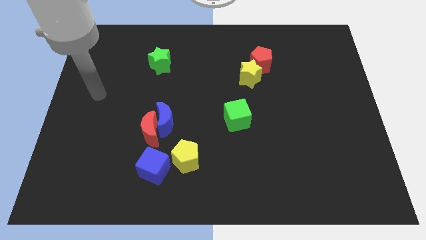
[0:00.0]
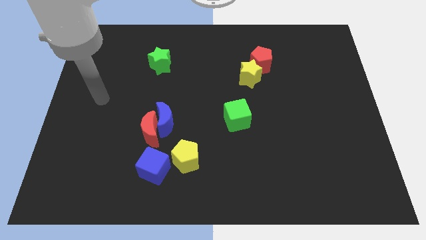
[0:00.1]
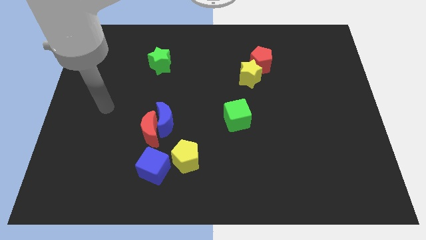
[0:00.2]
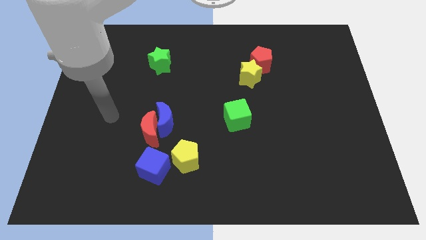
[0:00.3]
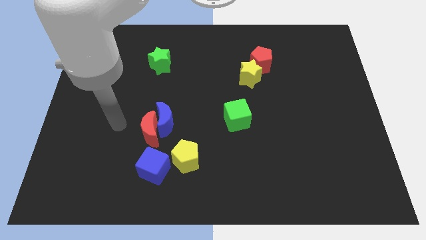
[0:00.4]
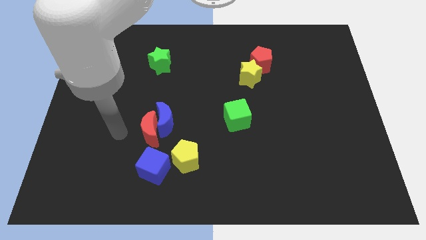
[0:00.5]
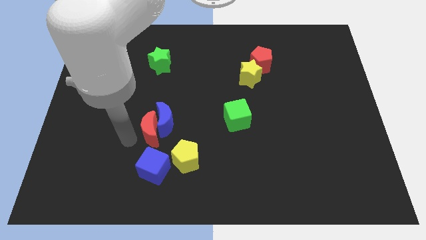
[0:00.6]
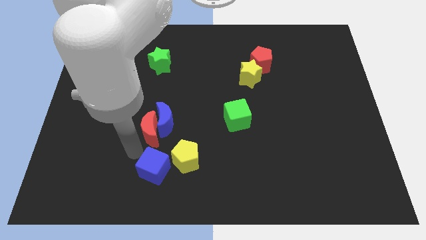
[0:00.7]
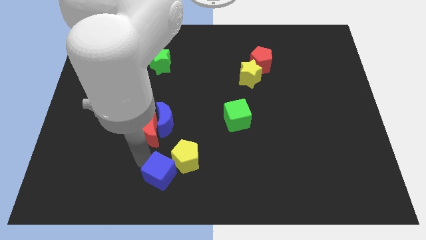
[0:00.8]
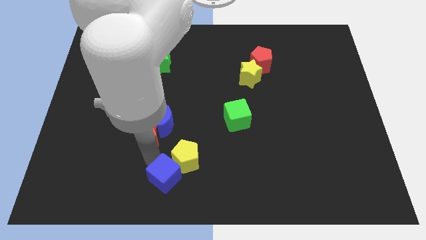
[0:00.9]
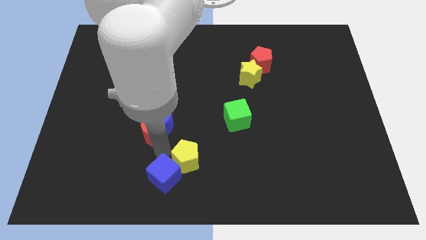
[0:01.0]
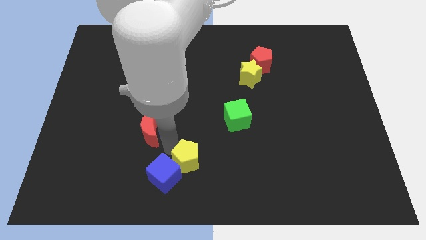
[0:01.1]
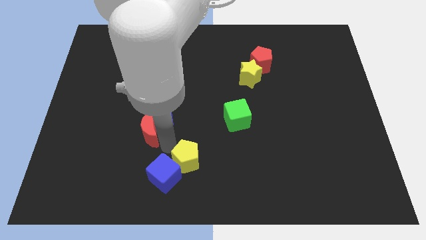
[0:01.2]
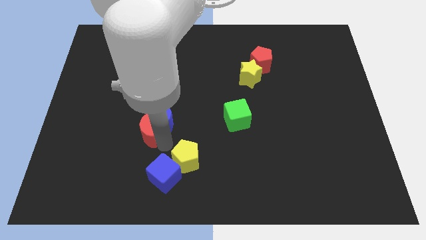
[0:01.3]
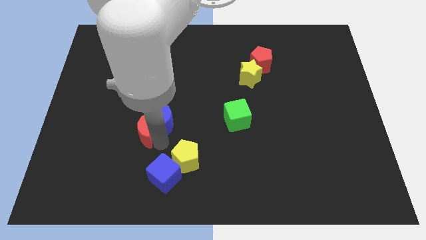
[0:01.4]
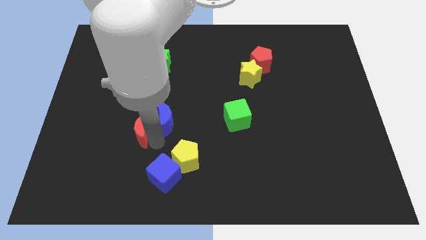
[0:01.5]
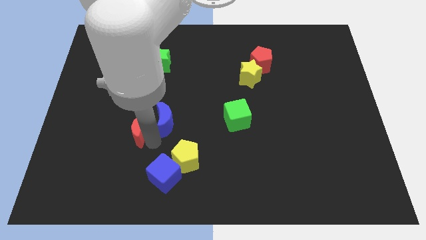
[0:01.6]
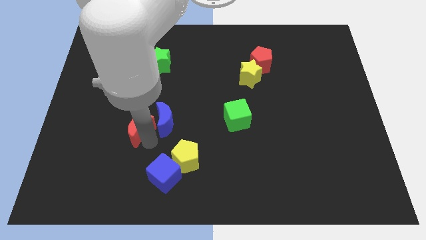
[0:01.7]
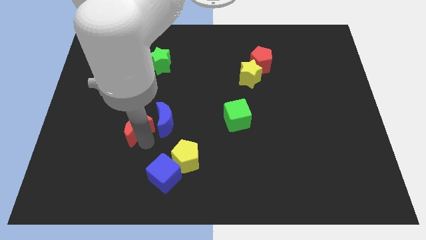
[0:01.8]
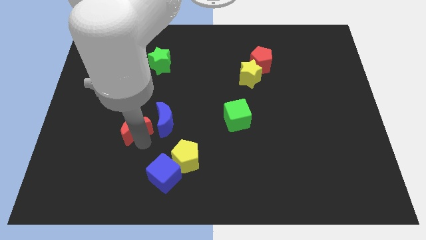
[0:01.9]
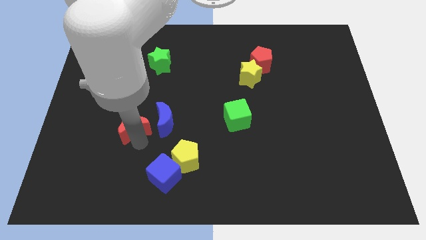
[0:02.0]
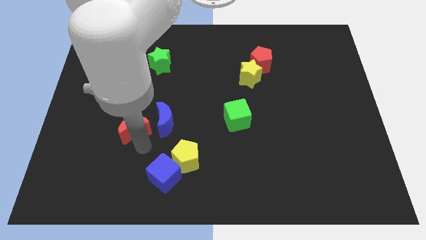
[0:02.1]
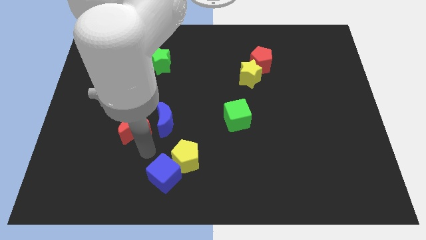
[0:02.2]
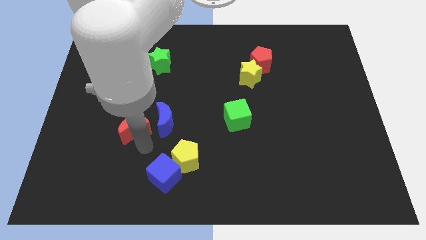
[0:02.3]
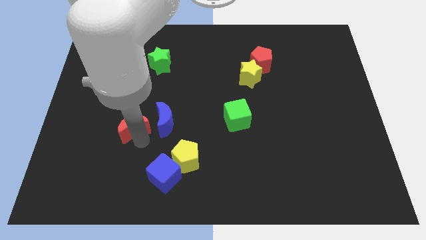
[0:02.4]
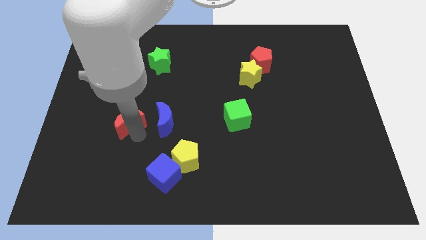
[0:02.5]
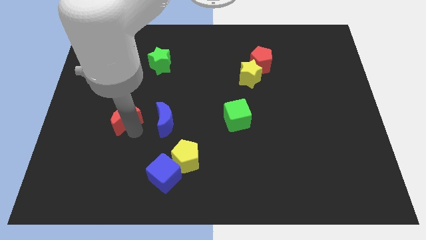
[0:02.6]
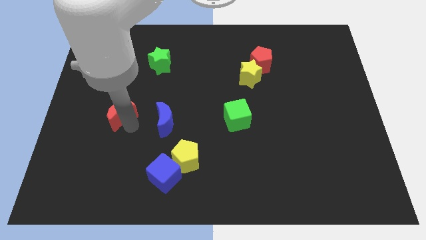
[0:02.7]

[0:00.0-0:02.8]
slide the red moon upwards and to the left slightly

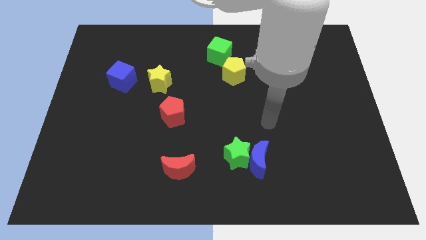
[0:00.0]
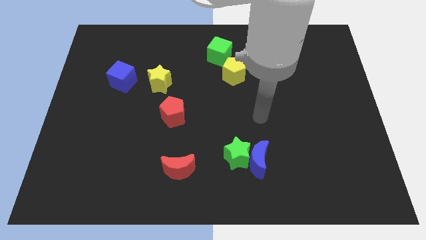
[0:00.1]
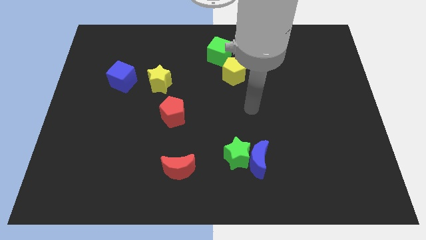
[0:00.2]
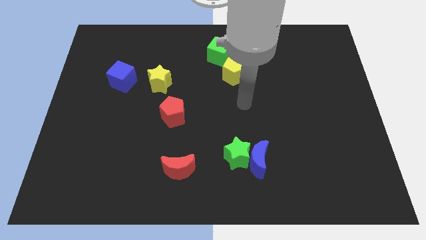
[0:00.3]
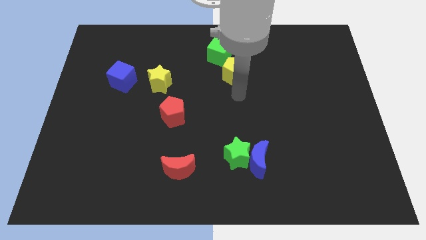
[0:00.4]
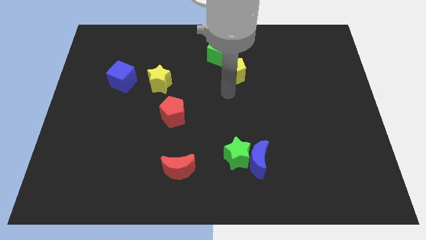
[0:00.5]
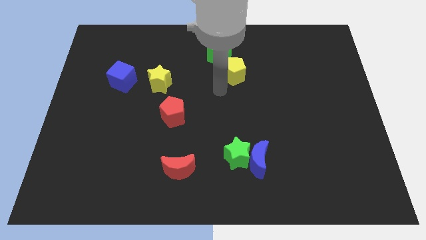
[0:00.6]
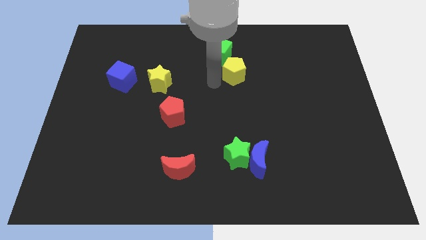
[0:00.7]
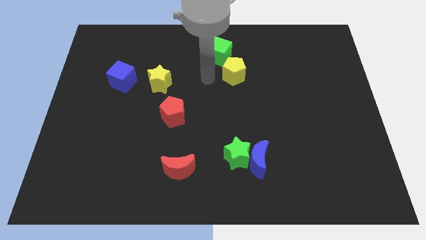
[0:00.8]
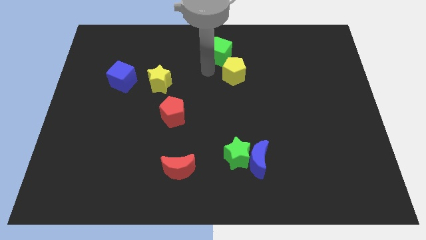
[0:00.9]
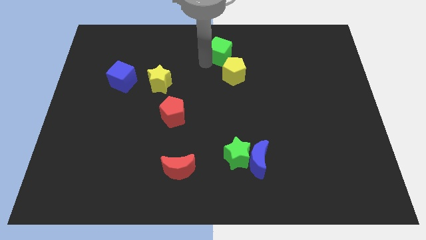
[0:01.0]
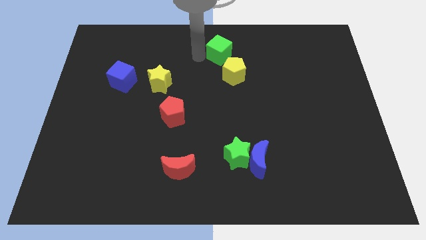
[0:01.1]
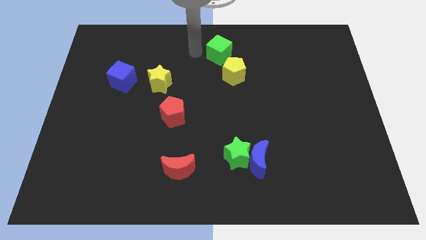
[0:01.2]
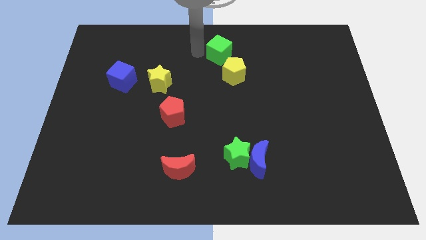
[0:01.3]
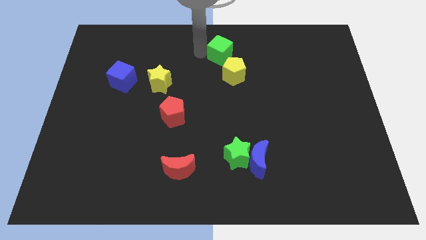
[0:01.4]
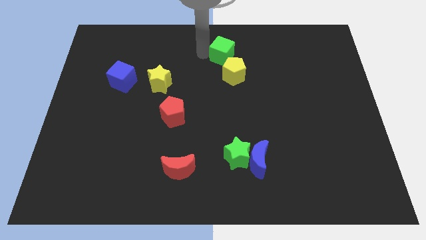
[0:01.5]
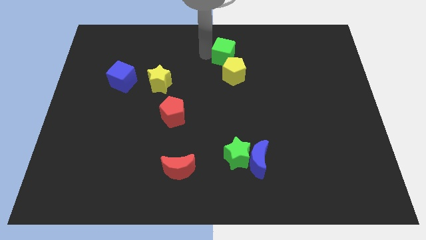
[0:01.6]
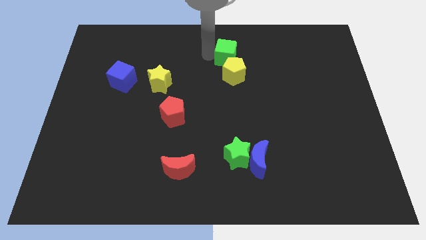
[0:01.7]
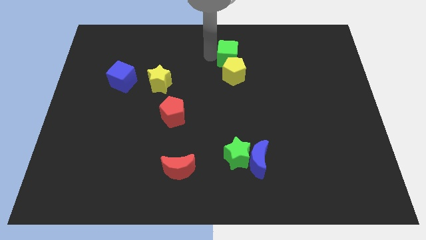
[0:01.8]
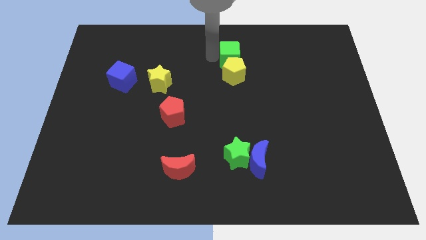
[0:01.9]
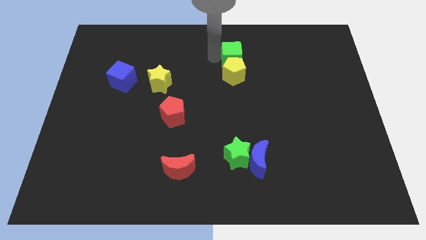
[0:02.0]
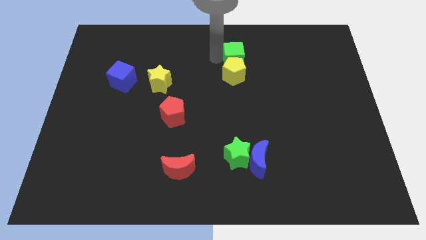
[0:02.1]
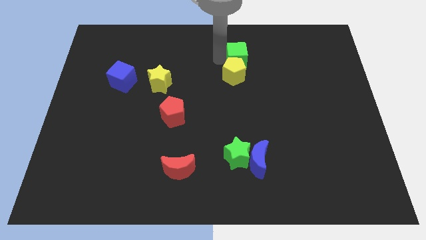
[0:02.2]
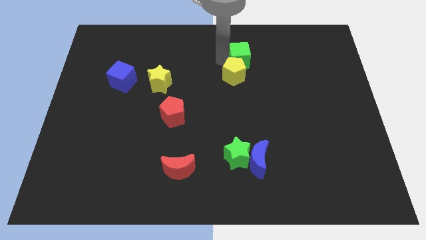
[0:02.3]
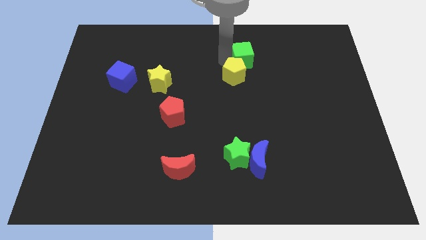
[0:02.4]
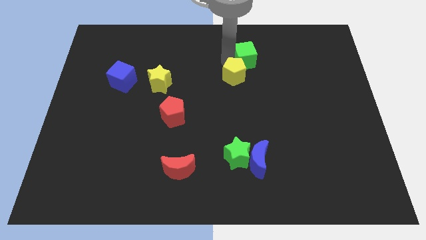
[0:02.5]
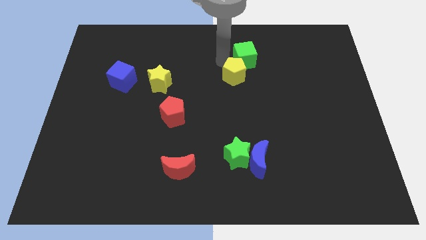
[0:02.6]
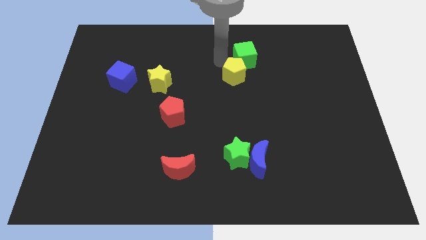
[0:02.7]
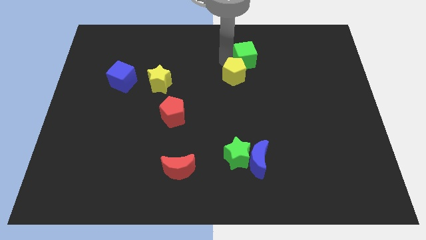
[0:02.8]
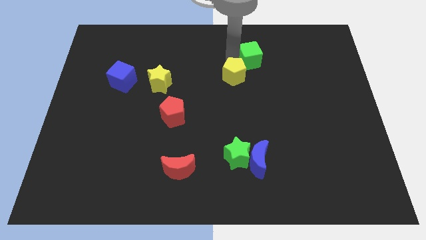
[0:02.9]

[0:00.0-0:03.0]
push the green cube a little right

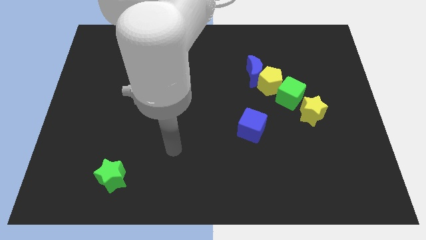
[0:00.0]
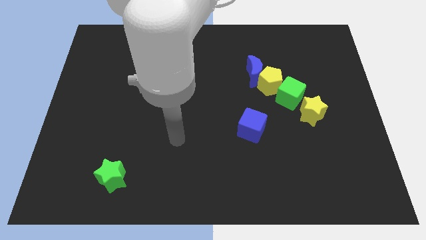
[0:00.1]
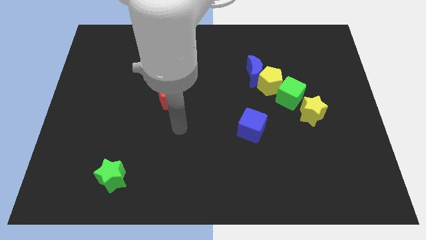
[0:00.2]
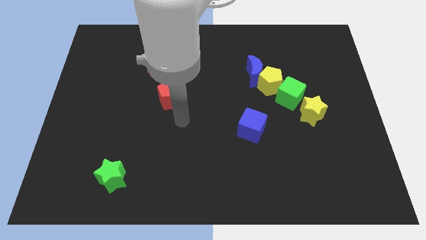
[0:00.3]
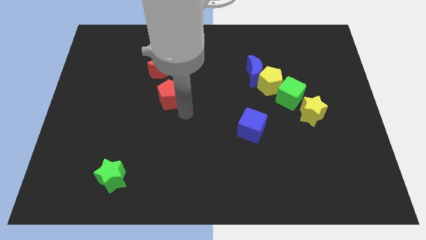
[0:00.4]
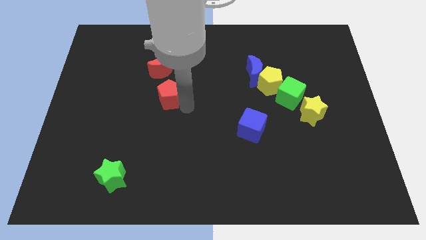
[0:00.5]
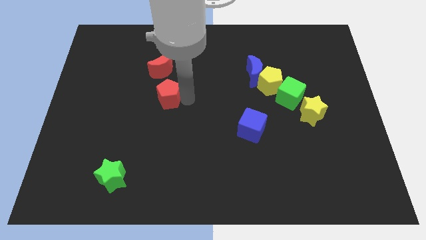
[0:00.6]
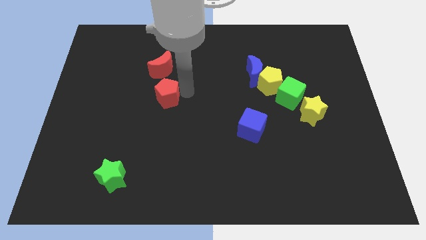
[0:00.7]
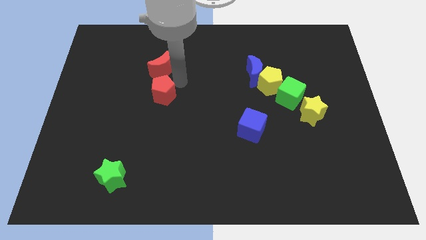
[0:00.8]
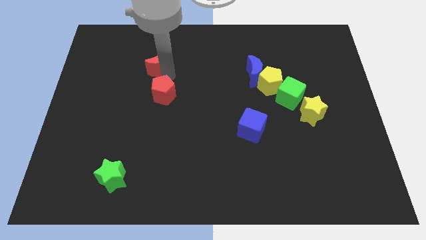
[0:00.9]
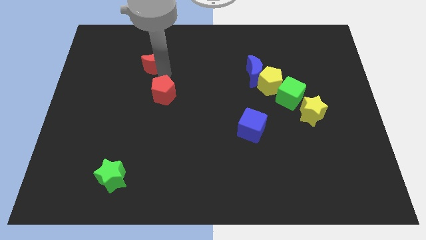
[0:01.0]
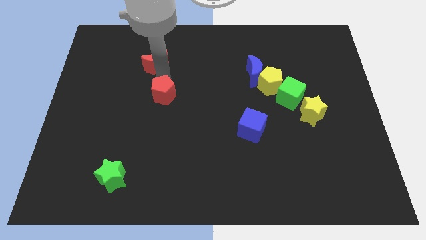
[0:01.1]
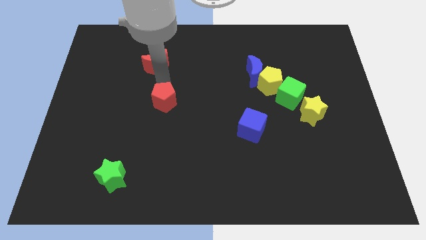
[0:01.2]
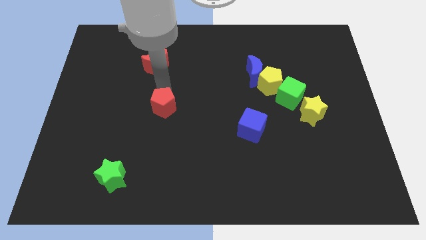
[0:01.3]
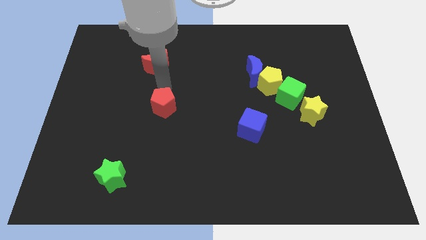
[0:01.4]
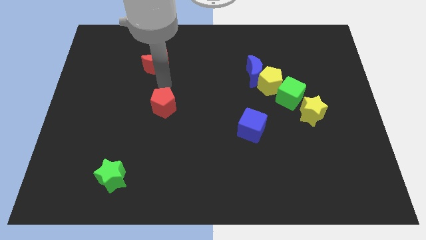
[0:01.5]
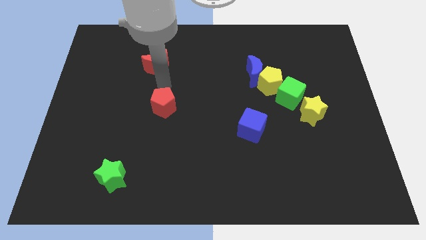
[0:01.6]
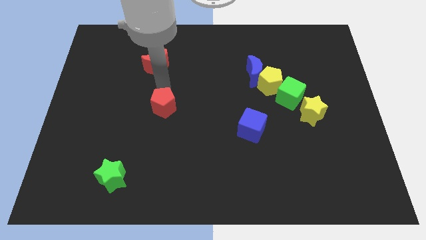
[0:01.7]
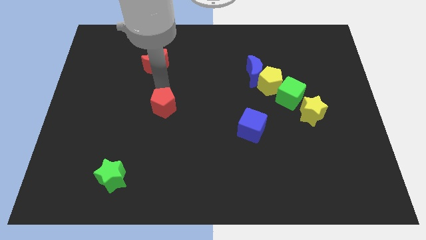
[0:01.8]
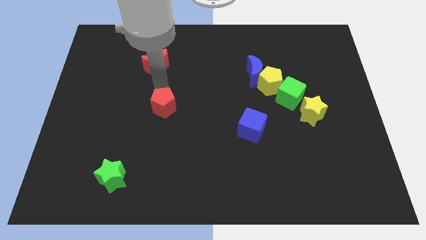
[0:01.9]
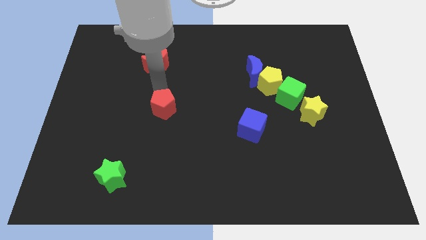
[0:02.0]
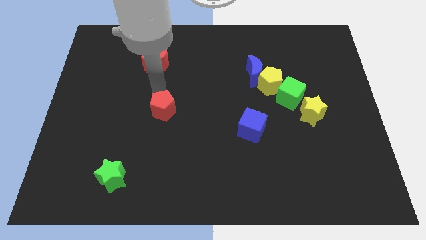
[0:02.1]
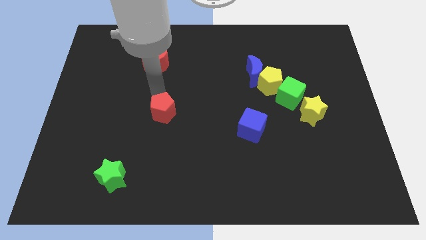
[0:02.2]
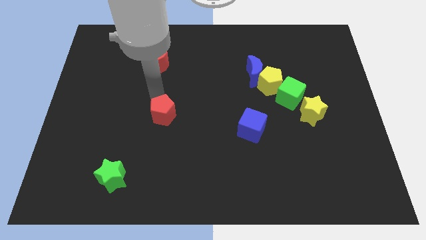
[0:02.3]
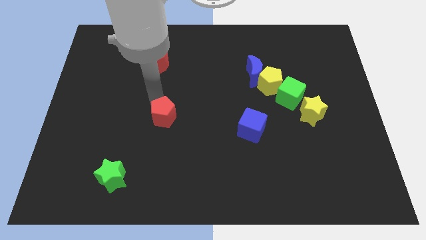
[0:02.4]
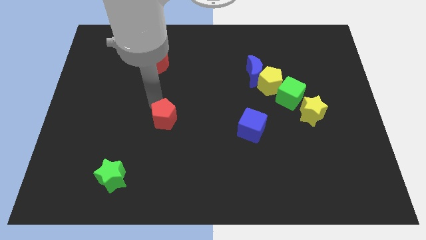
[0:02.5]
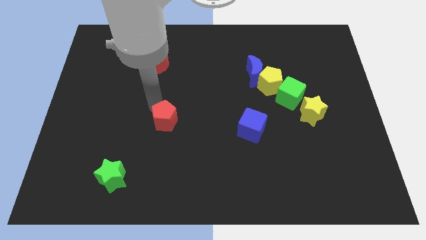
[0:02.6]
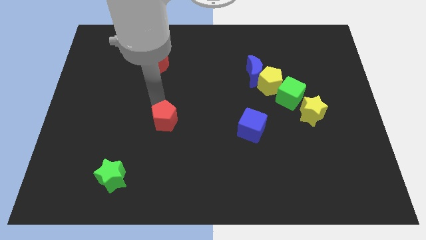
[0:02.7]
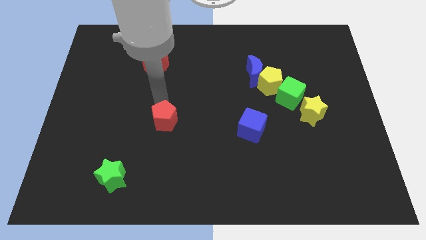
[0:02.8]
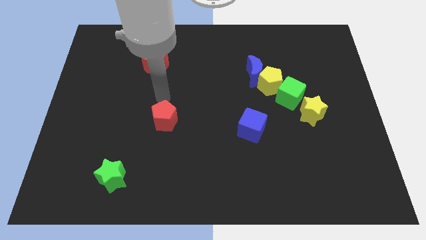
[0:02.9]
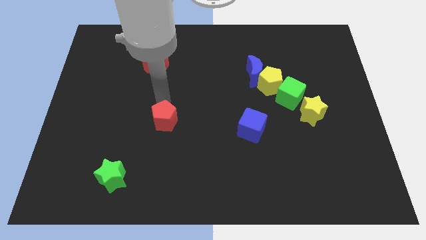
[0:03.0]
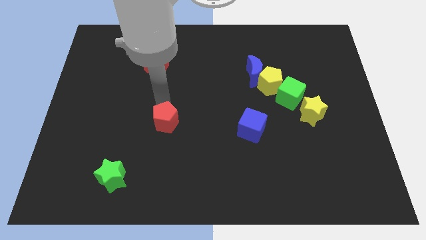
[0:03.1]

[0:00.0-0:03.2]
slightly push the red pentagon downwards
